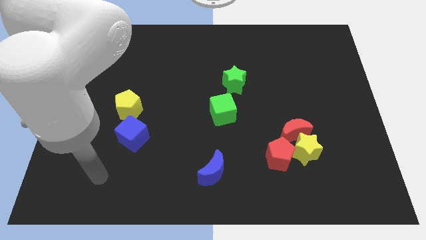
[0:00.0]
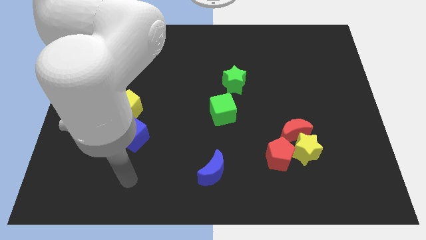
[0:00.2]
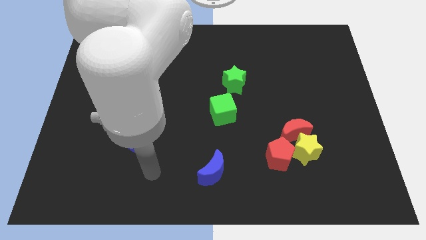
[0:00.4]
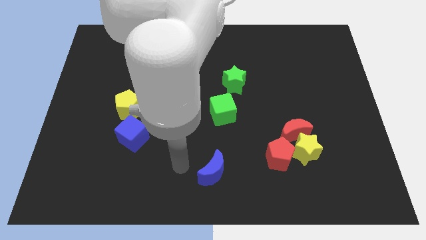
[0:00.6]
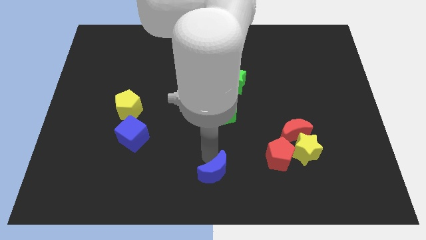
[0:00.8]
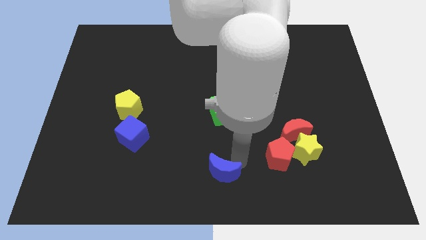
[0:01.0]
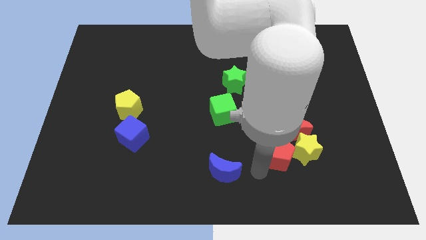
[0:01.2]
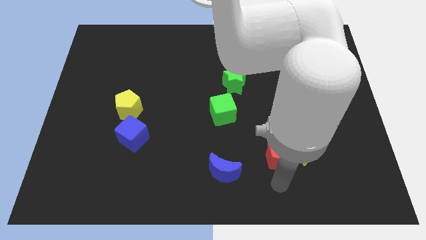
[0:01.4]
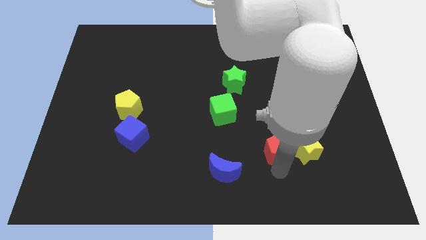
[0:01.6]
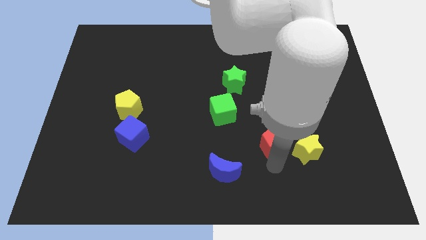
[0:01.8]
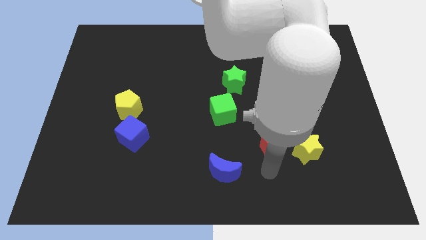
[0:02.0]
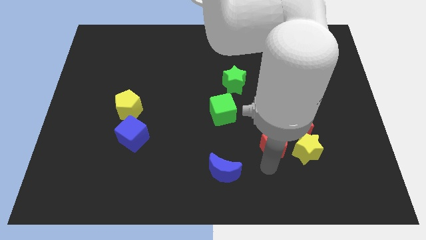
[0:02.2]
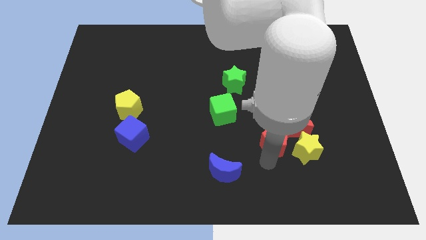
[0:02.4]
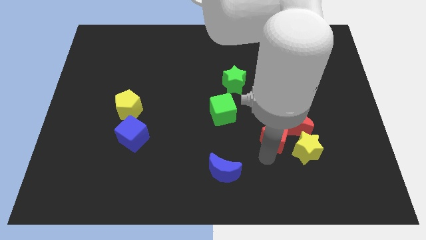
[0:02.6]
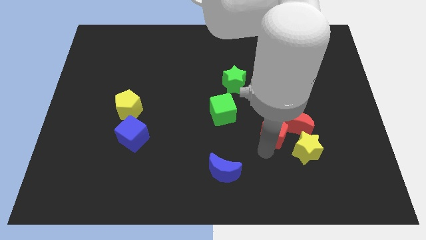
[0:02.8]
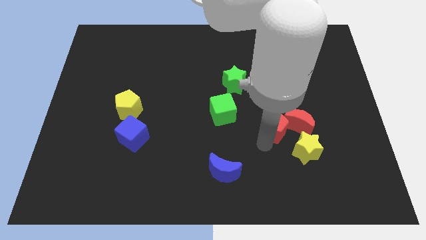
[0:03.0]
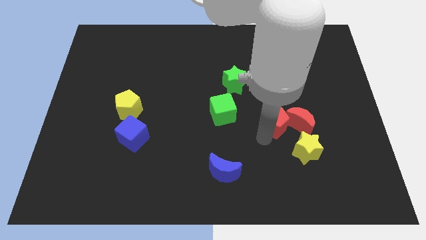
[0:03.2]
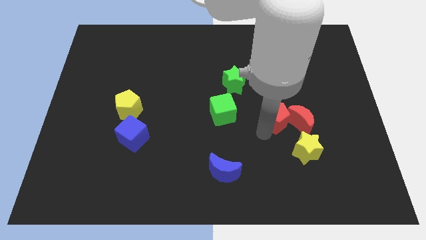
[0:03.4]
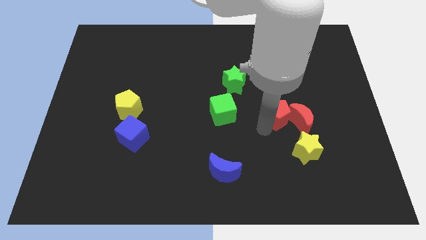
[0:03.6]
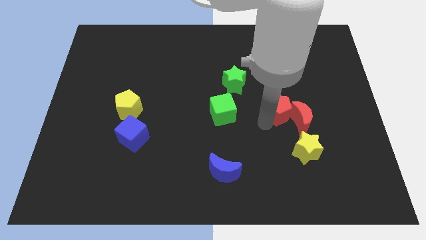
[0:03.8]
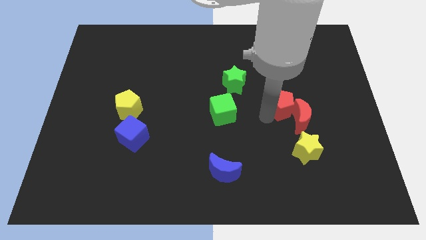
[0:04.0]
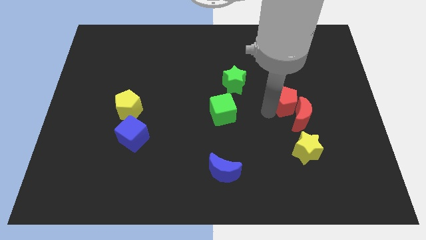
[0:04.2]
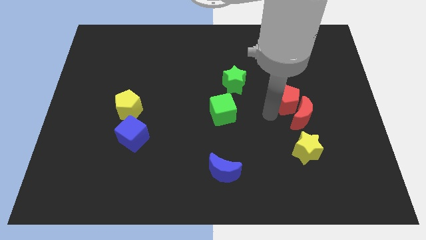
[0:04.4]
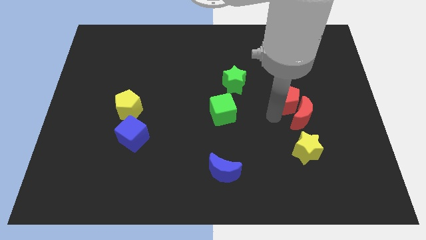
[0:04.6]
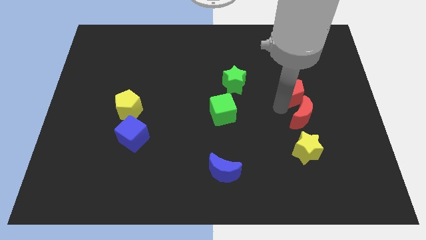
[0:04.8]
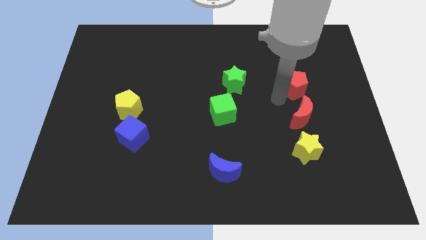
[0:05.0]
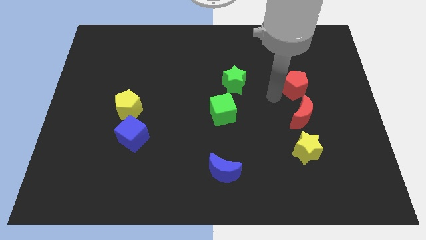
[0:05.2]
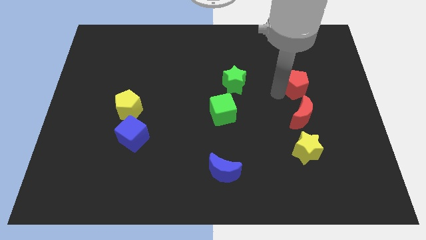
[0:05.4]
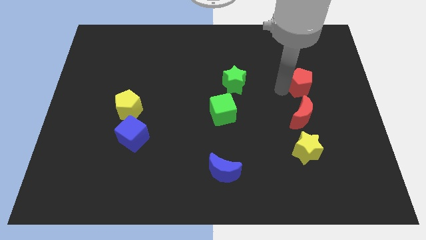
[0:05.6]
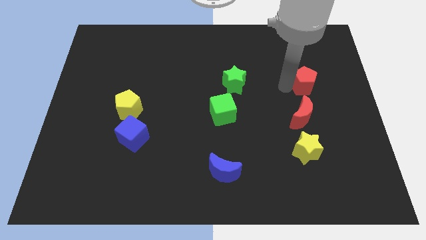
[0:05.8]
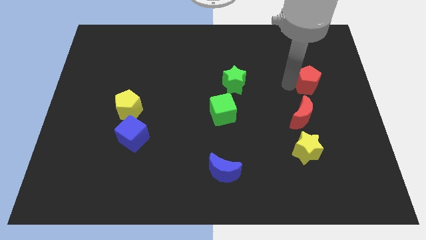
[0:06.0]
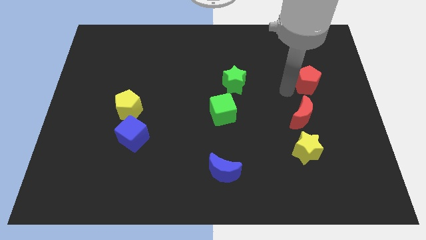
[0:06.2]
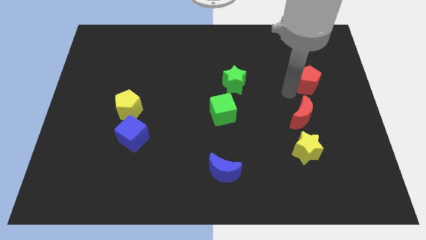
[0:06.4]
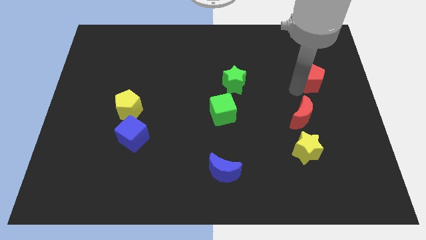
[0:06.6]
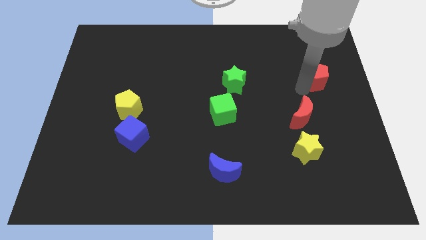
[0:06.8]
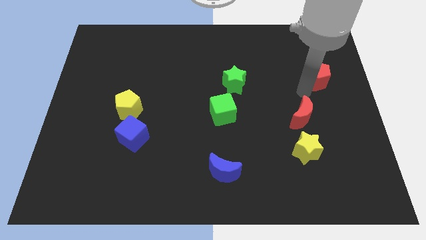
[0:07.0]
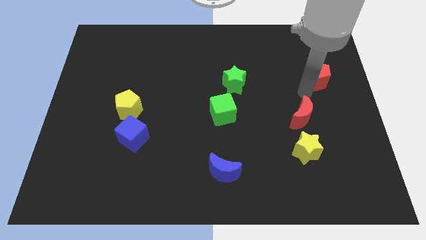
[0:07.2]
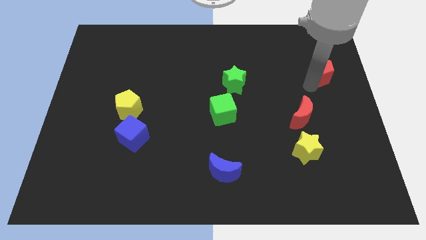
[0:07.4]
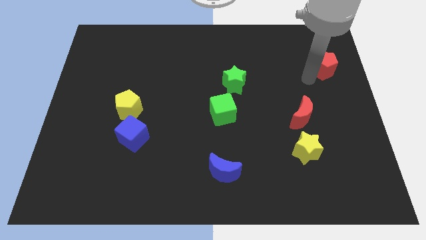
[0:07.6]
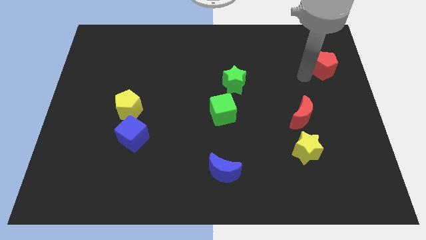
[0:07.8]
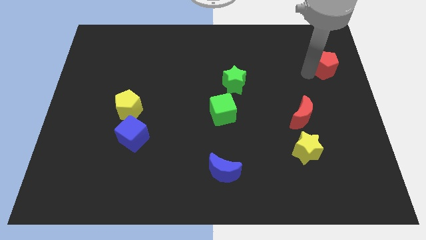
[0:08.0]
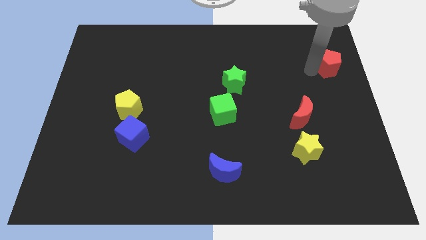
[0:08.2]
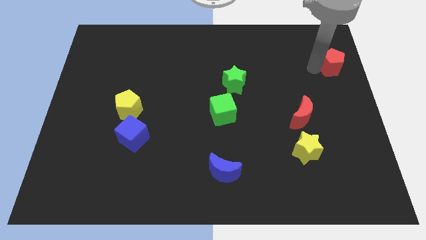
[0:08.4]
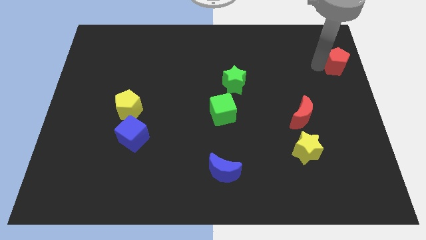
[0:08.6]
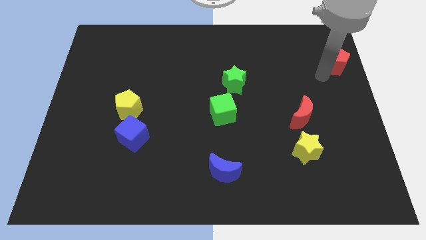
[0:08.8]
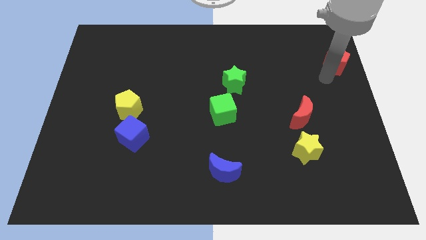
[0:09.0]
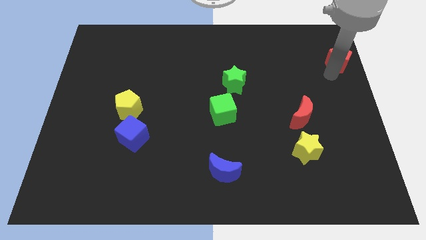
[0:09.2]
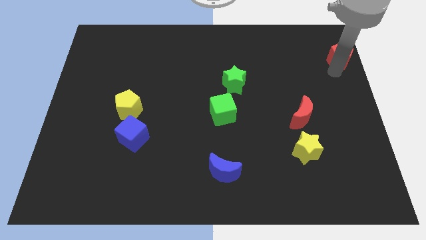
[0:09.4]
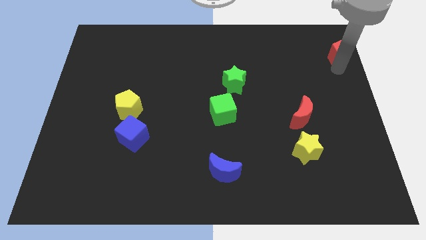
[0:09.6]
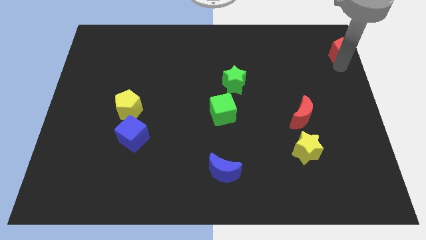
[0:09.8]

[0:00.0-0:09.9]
put the red pentagon to the upper right corner

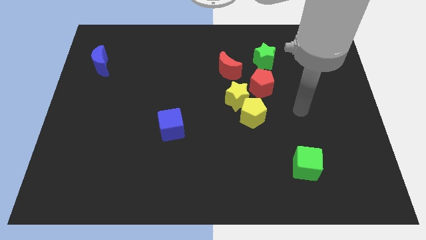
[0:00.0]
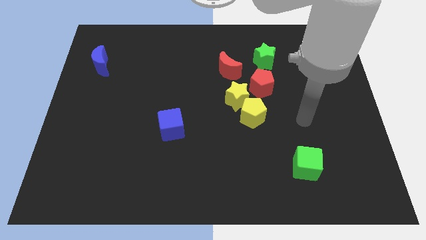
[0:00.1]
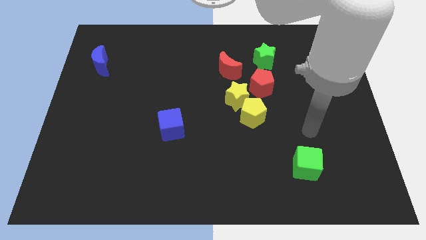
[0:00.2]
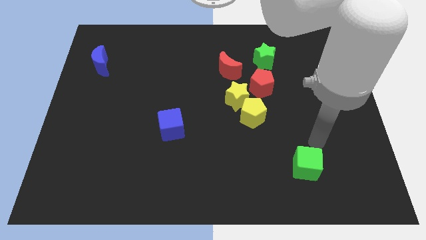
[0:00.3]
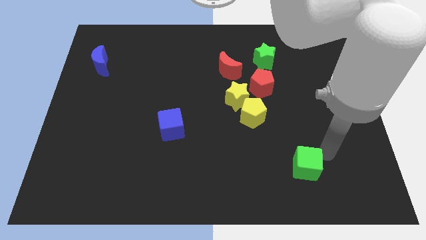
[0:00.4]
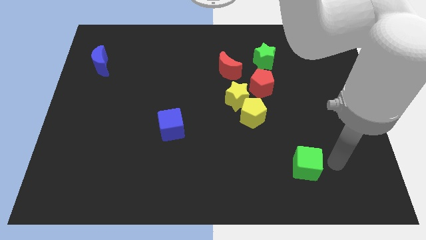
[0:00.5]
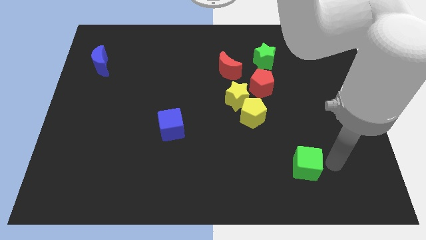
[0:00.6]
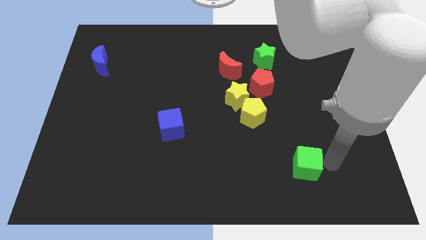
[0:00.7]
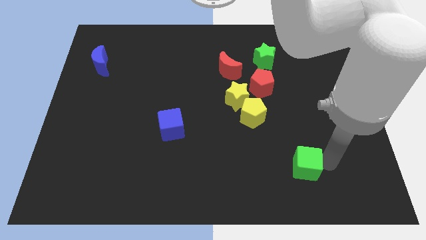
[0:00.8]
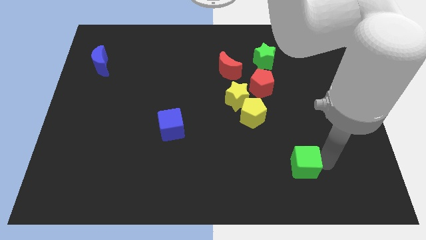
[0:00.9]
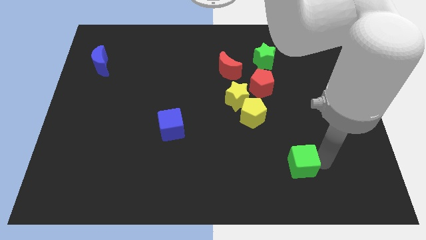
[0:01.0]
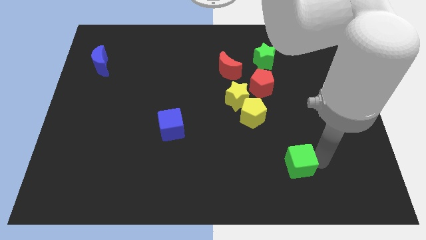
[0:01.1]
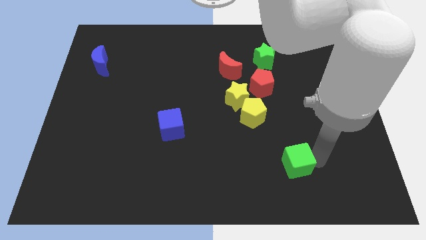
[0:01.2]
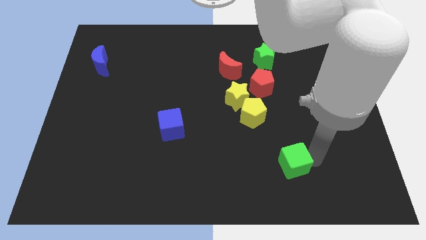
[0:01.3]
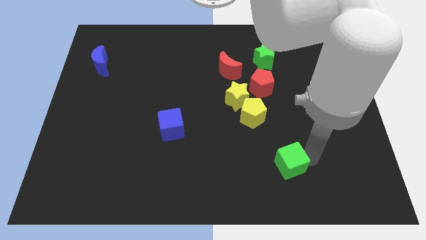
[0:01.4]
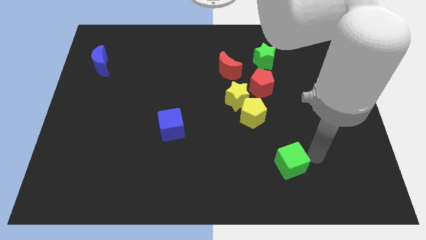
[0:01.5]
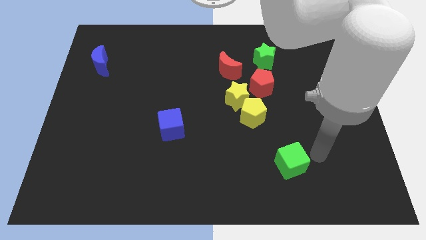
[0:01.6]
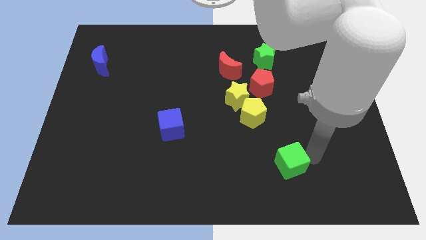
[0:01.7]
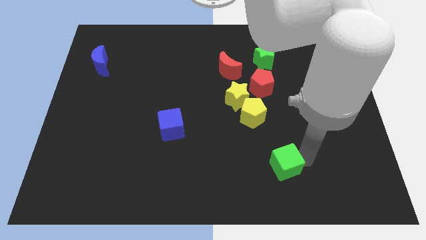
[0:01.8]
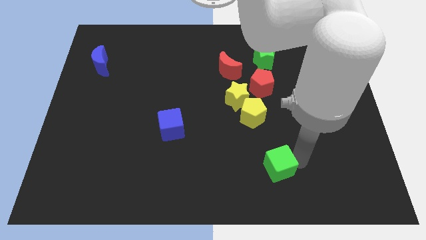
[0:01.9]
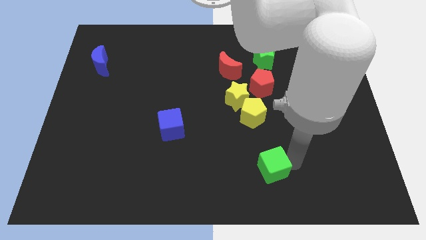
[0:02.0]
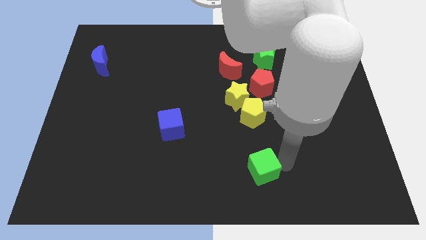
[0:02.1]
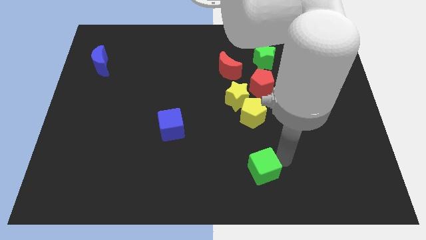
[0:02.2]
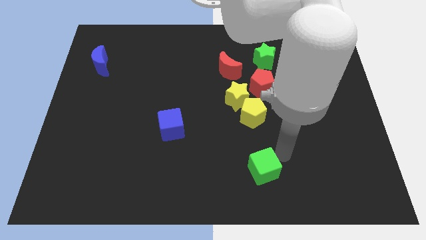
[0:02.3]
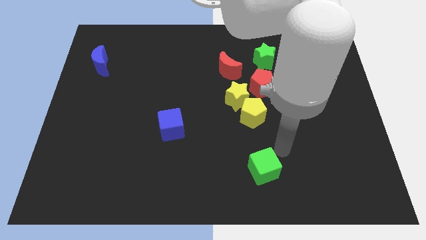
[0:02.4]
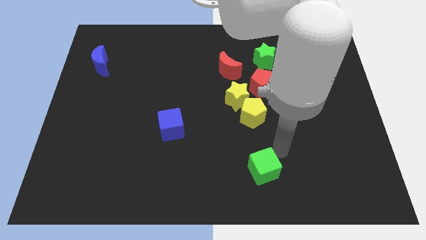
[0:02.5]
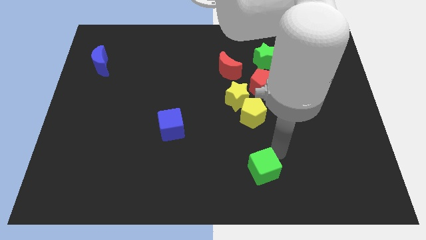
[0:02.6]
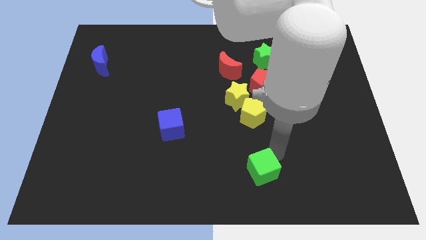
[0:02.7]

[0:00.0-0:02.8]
put the green cube to the bottom side
